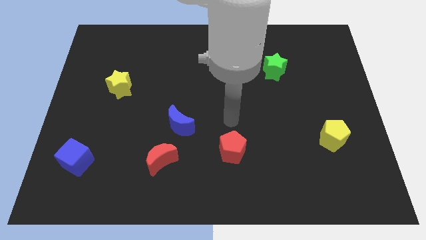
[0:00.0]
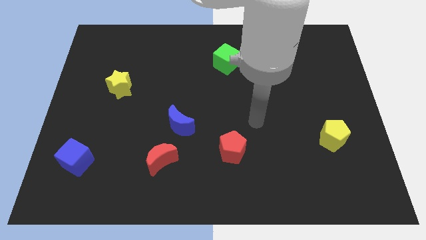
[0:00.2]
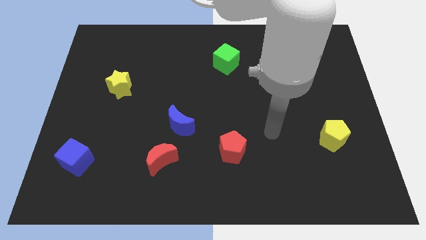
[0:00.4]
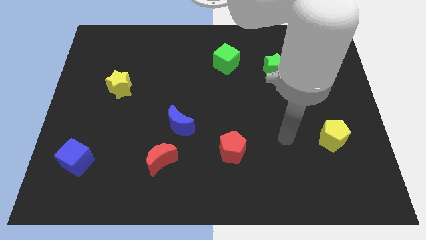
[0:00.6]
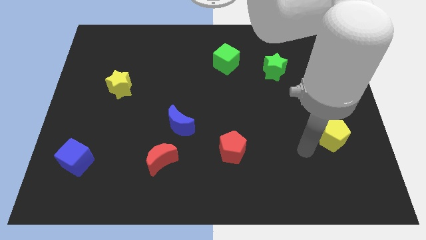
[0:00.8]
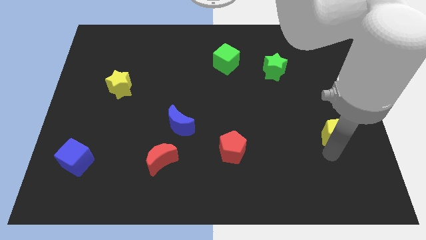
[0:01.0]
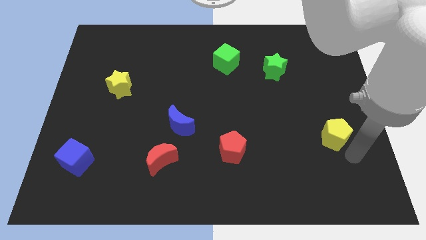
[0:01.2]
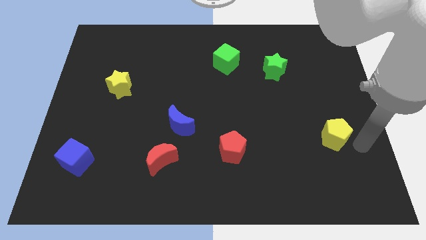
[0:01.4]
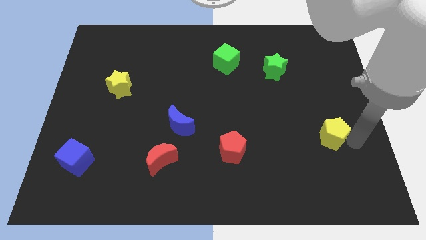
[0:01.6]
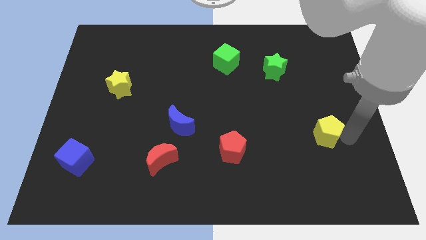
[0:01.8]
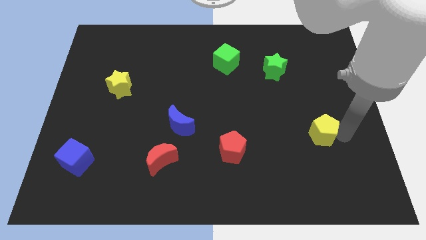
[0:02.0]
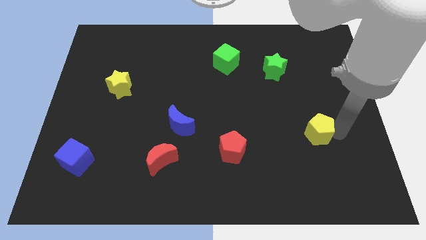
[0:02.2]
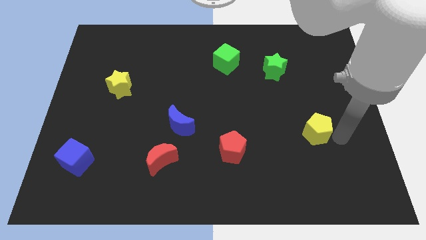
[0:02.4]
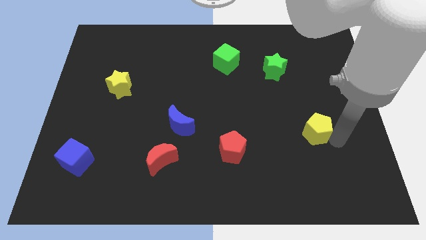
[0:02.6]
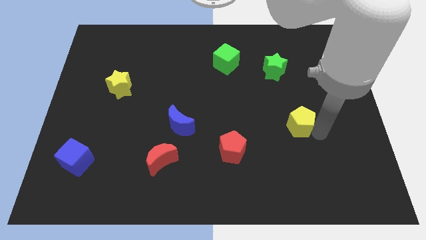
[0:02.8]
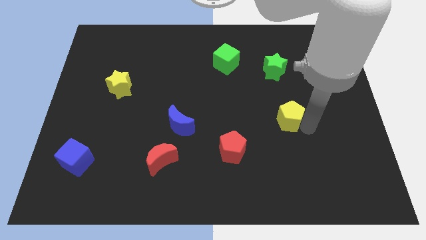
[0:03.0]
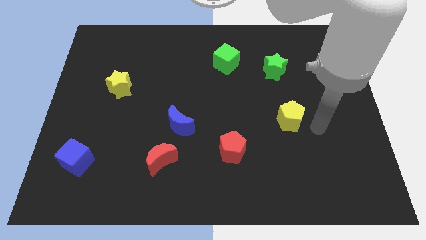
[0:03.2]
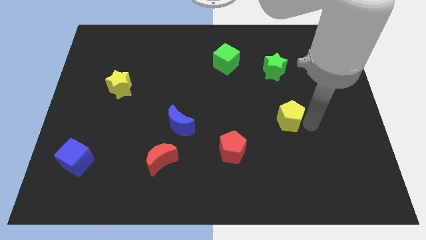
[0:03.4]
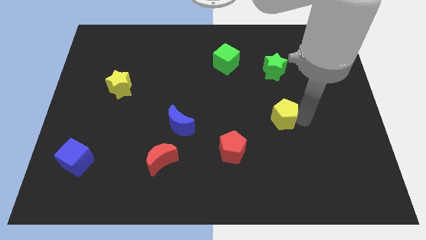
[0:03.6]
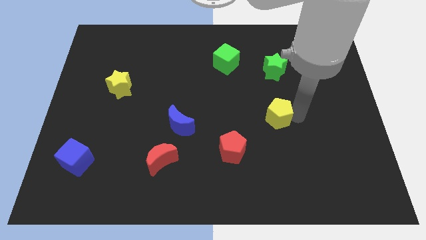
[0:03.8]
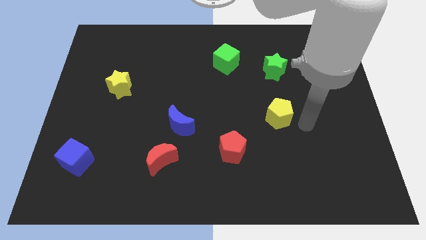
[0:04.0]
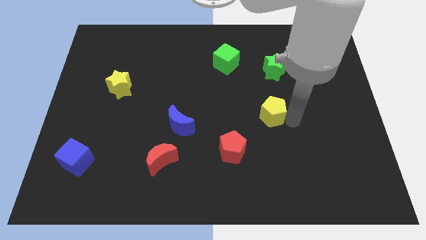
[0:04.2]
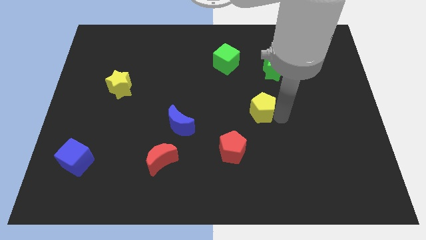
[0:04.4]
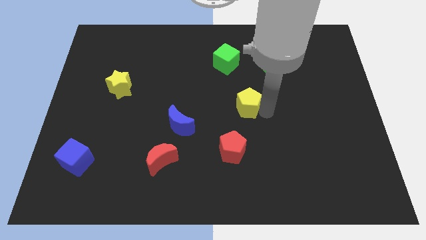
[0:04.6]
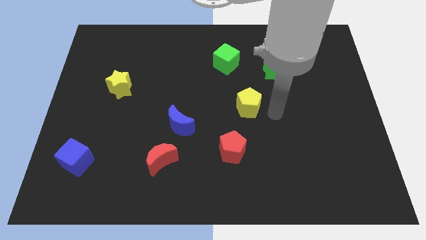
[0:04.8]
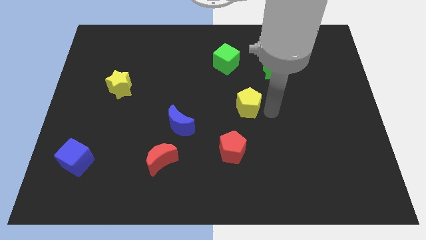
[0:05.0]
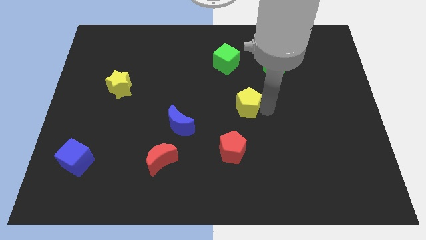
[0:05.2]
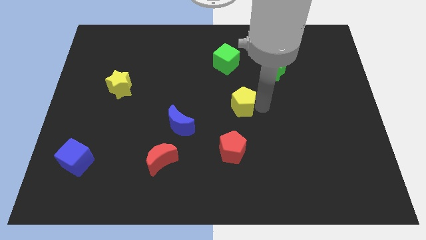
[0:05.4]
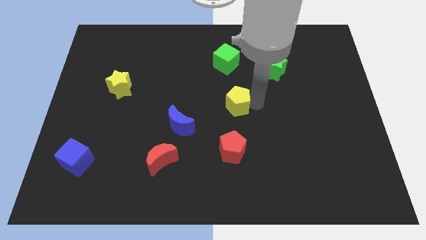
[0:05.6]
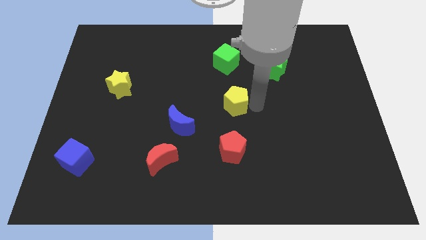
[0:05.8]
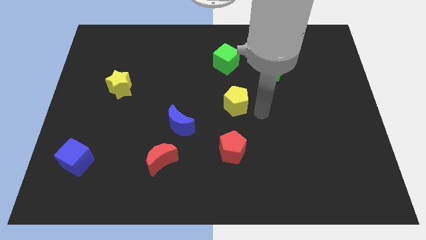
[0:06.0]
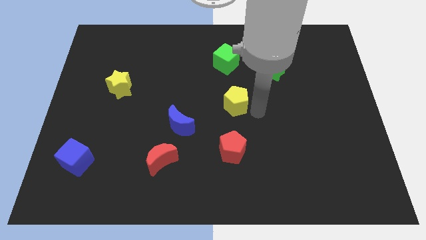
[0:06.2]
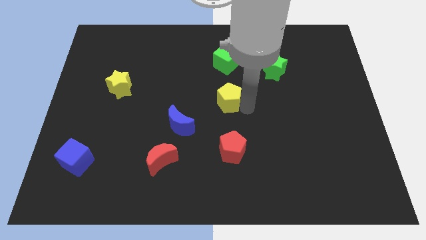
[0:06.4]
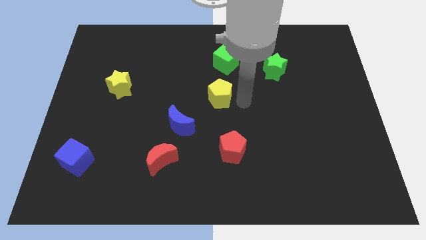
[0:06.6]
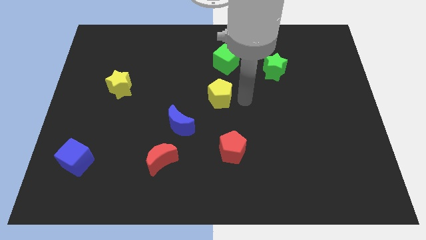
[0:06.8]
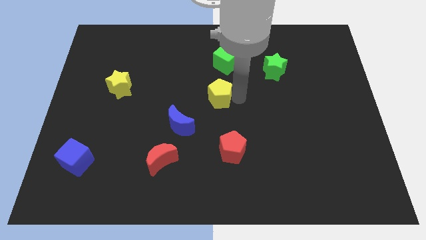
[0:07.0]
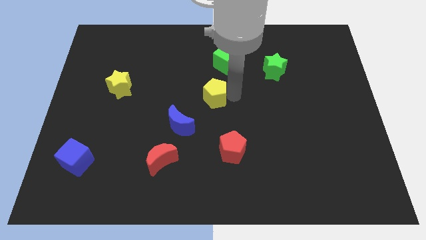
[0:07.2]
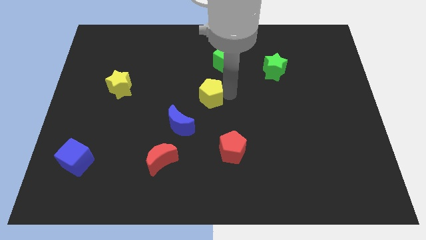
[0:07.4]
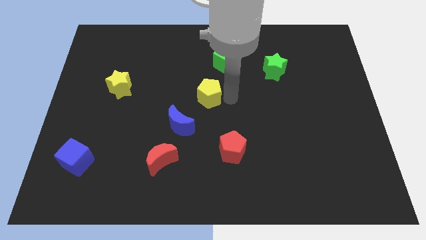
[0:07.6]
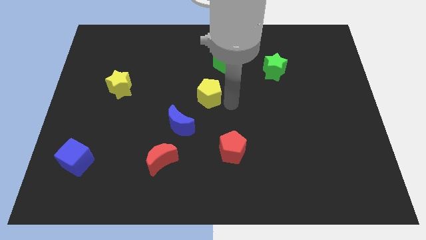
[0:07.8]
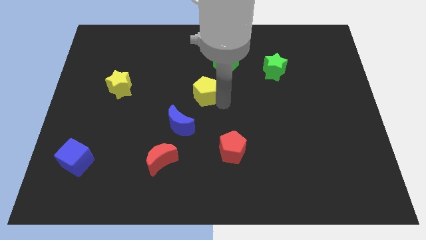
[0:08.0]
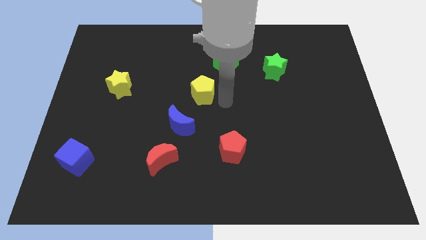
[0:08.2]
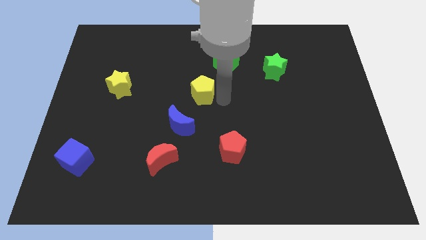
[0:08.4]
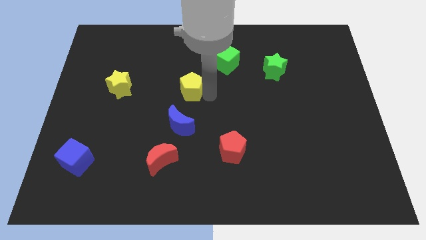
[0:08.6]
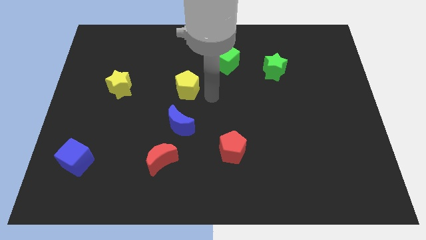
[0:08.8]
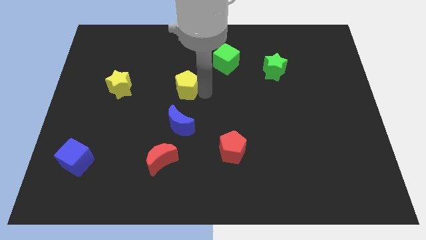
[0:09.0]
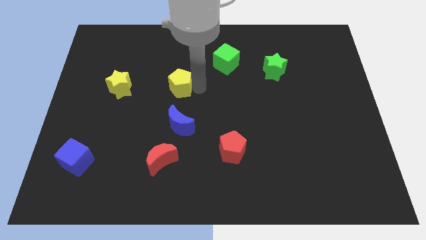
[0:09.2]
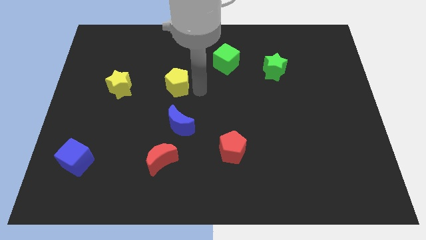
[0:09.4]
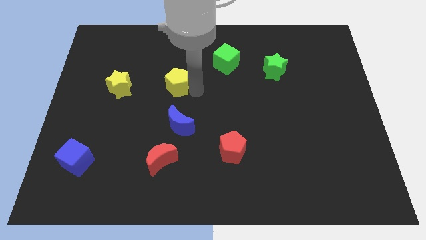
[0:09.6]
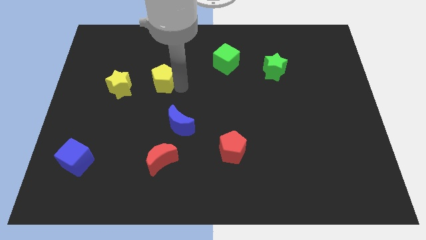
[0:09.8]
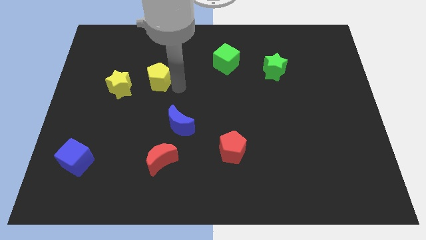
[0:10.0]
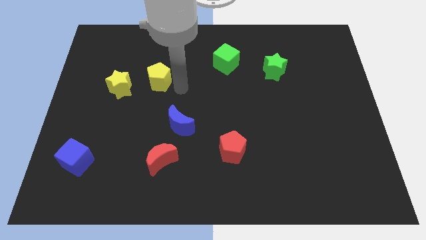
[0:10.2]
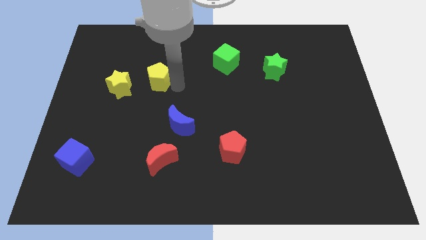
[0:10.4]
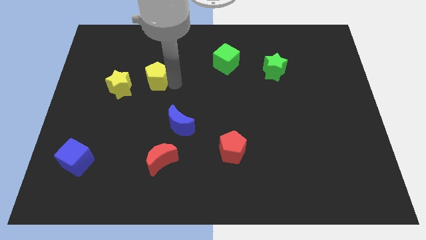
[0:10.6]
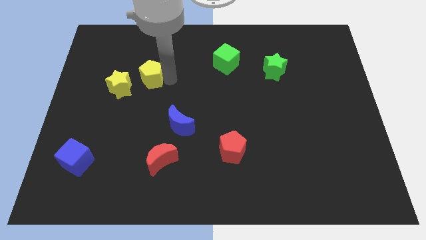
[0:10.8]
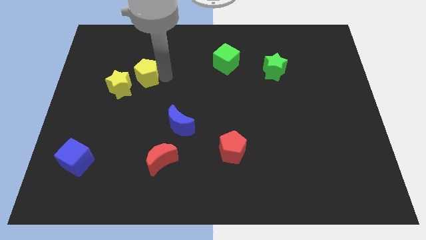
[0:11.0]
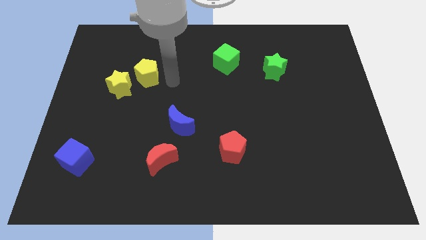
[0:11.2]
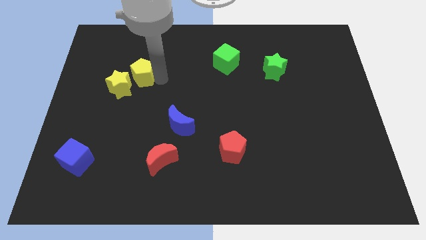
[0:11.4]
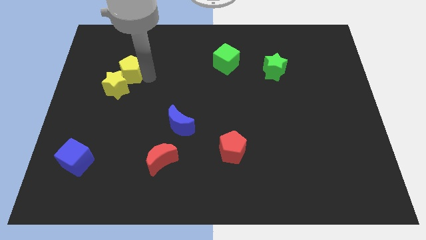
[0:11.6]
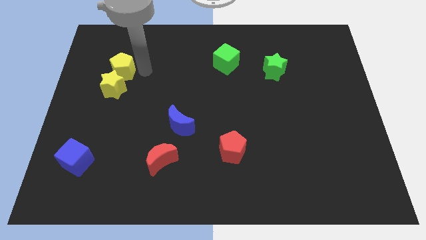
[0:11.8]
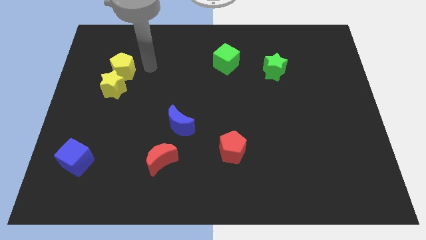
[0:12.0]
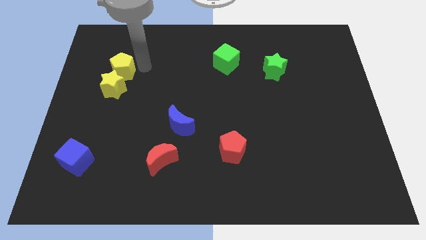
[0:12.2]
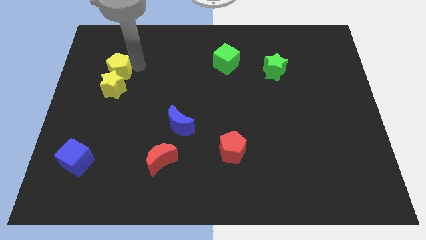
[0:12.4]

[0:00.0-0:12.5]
slide the yellow pentagon to the top left side of the yellow star

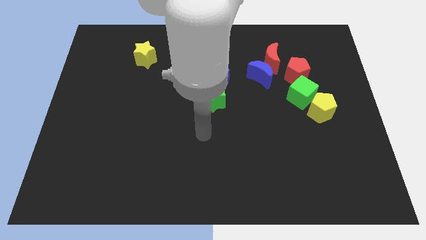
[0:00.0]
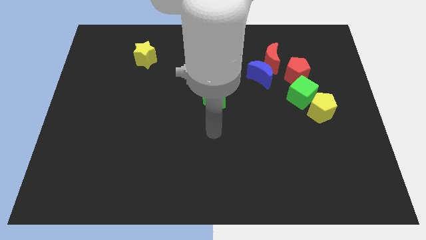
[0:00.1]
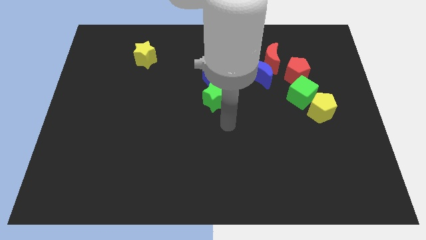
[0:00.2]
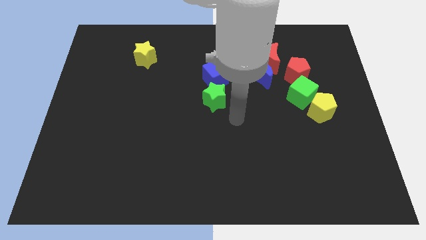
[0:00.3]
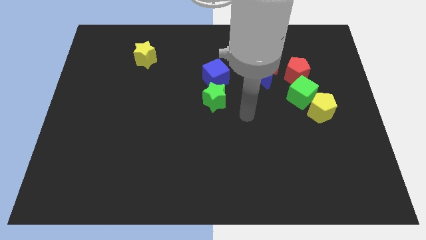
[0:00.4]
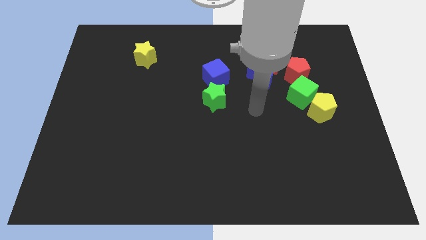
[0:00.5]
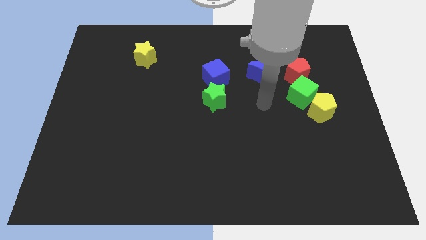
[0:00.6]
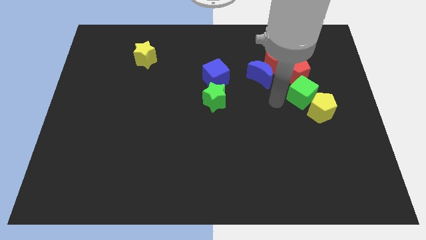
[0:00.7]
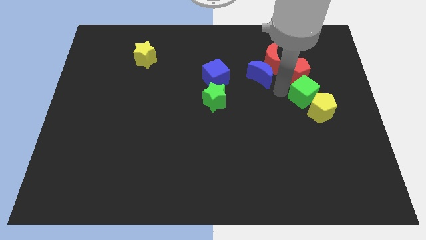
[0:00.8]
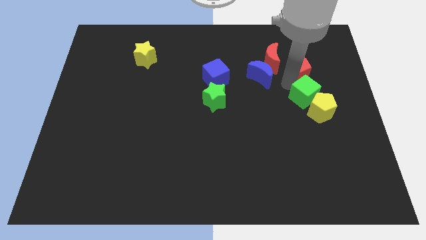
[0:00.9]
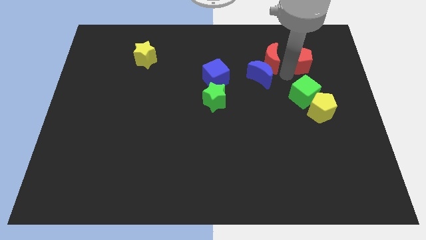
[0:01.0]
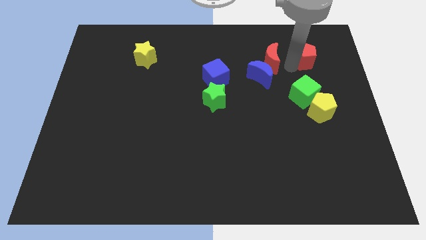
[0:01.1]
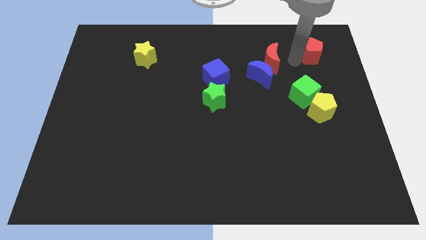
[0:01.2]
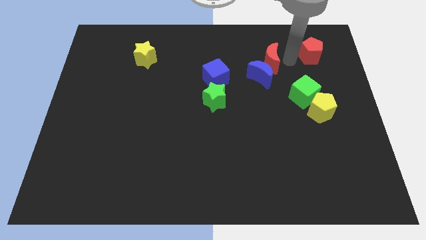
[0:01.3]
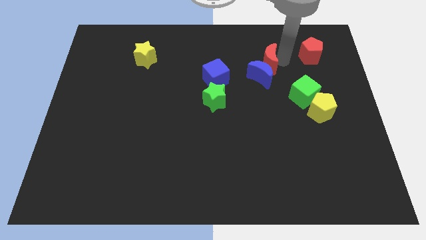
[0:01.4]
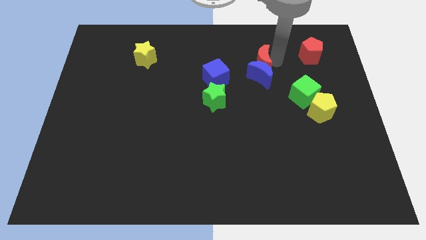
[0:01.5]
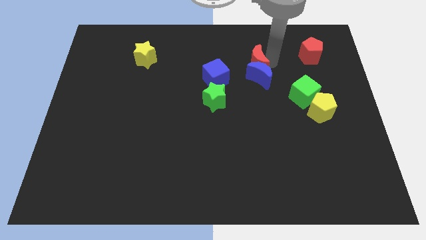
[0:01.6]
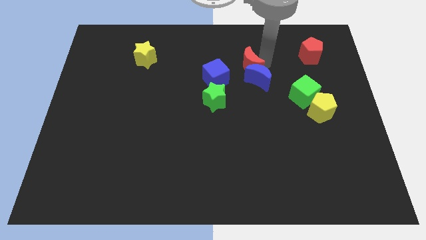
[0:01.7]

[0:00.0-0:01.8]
push the red moon to the top right side of the blue cube
